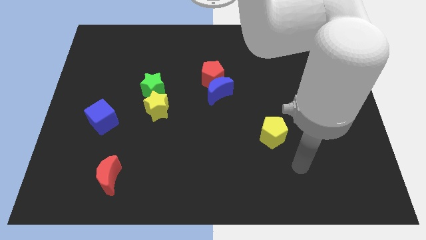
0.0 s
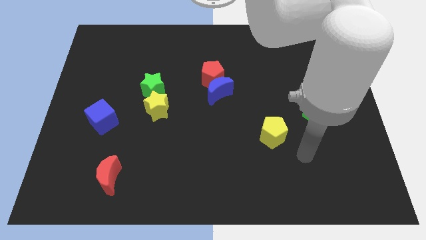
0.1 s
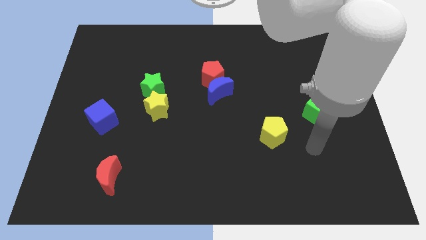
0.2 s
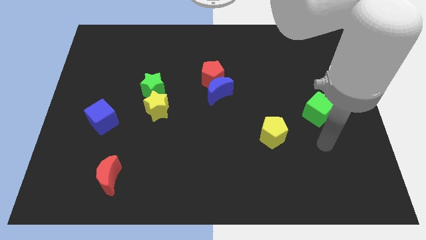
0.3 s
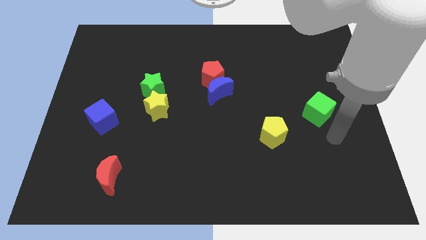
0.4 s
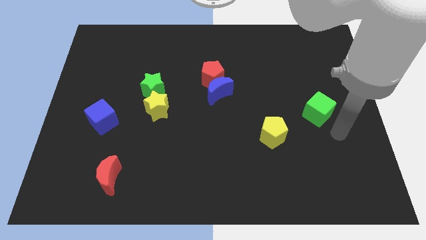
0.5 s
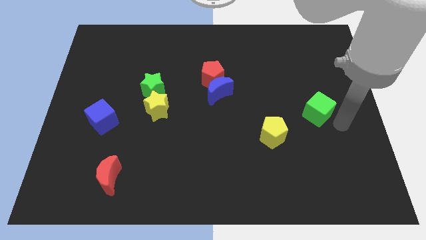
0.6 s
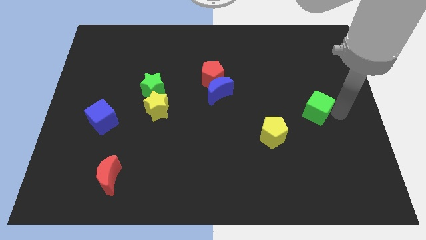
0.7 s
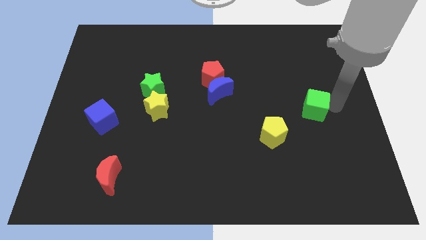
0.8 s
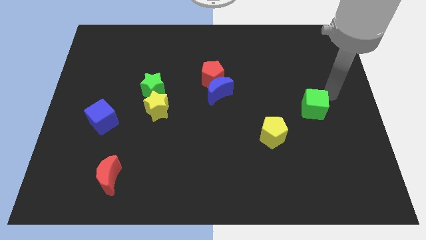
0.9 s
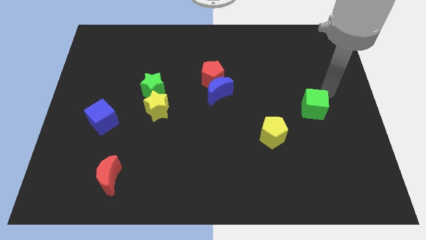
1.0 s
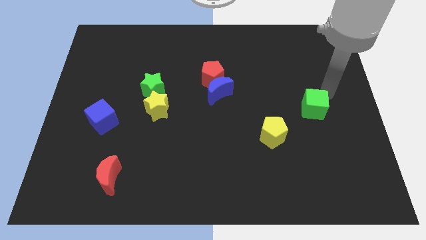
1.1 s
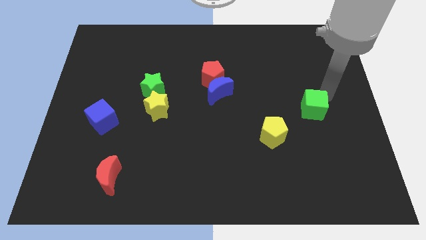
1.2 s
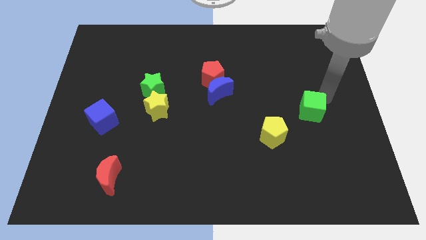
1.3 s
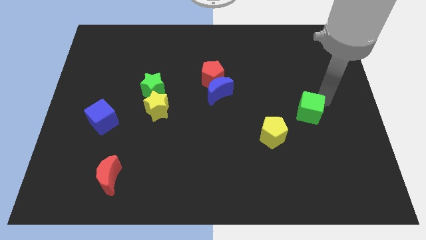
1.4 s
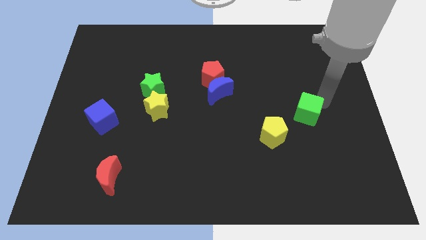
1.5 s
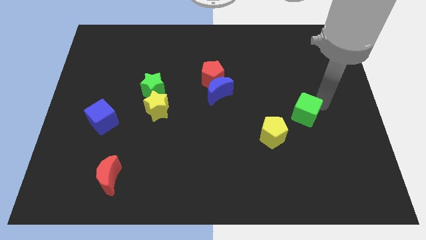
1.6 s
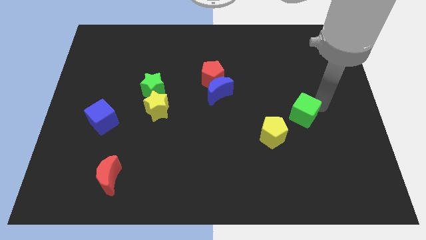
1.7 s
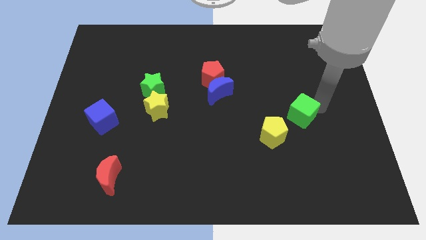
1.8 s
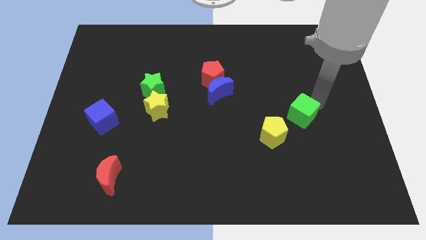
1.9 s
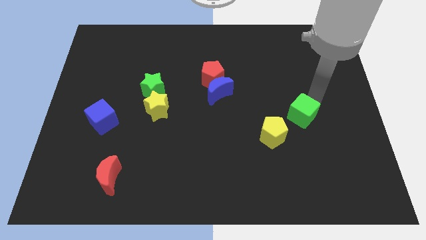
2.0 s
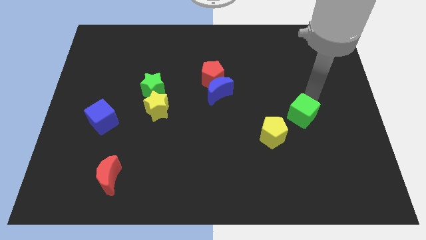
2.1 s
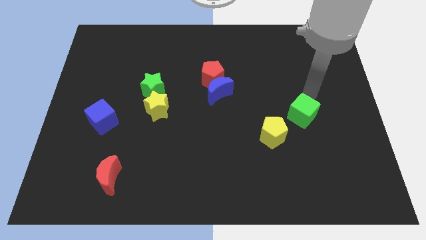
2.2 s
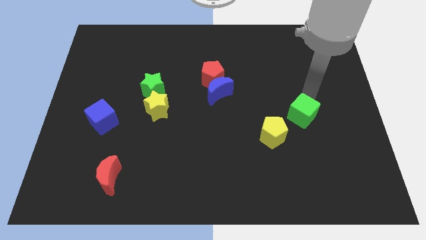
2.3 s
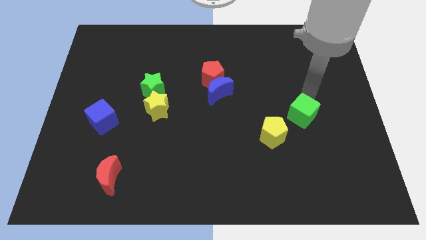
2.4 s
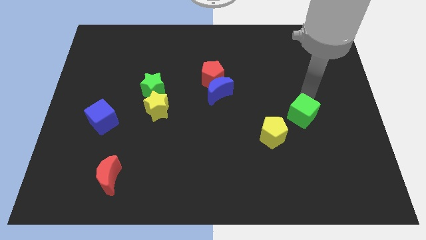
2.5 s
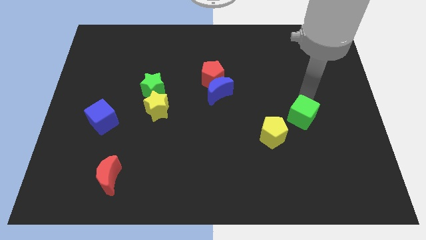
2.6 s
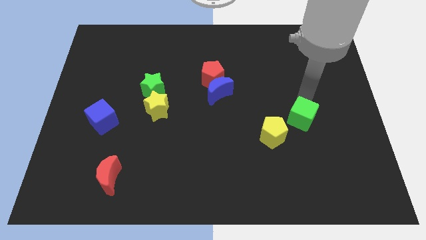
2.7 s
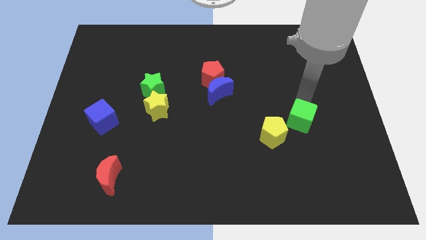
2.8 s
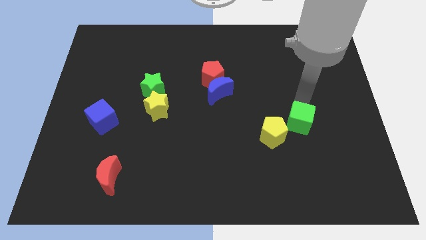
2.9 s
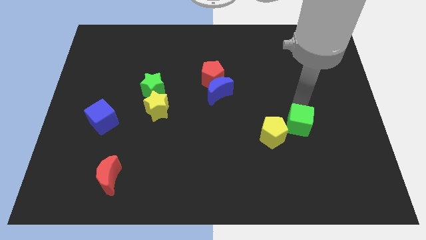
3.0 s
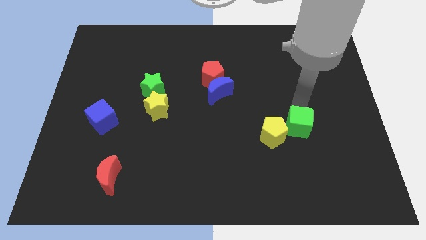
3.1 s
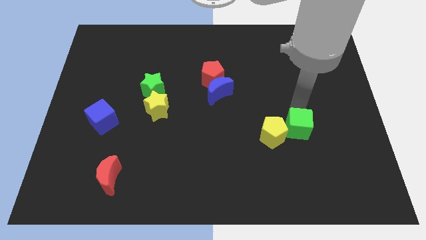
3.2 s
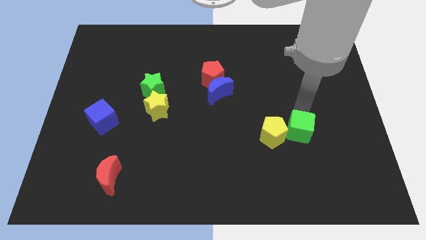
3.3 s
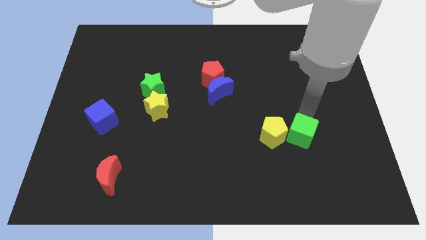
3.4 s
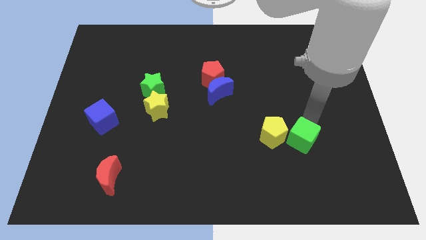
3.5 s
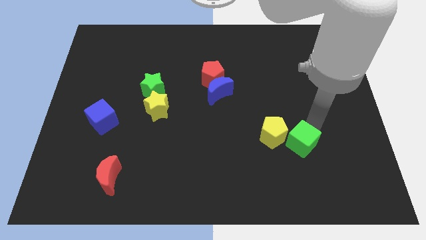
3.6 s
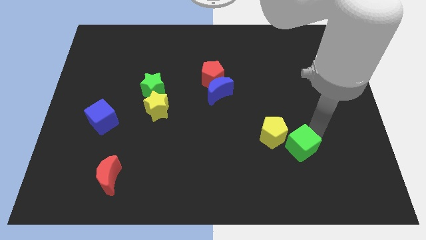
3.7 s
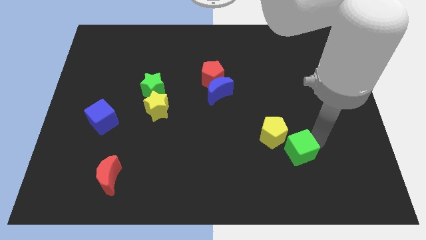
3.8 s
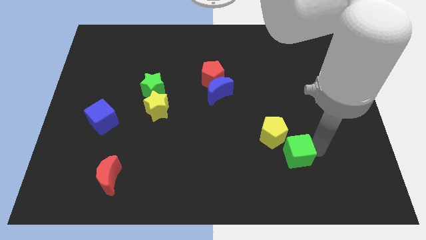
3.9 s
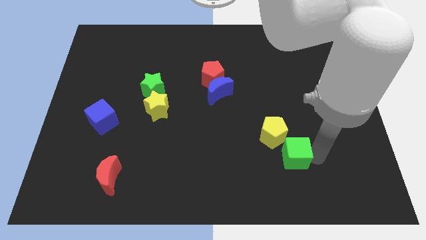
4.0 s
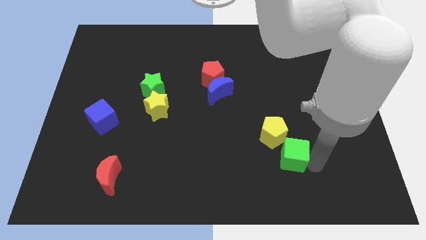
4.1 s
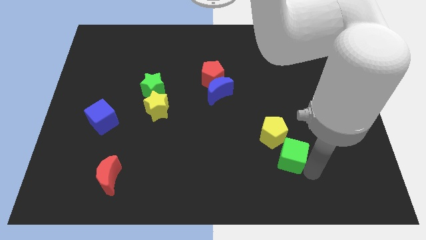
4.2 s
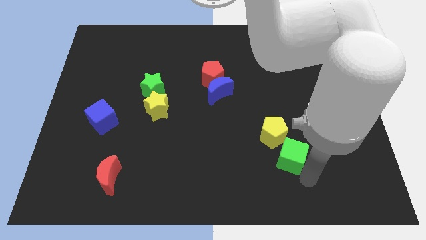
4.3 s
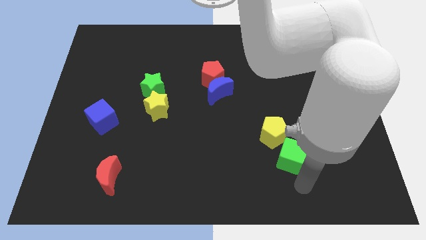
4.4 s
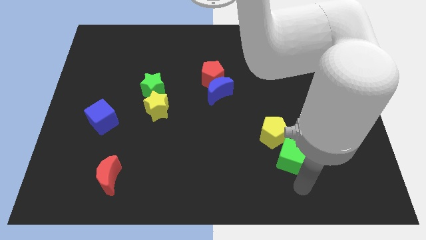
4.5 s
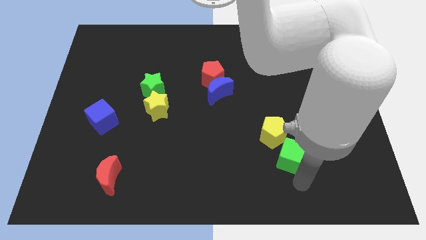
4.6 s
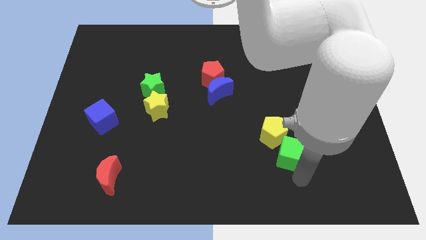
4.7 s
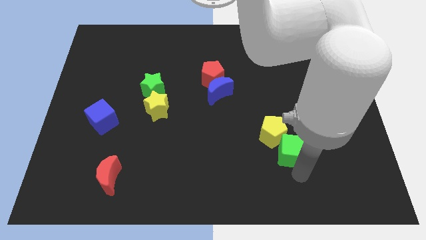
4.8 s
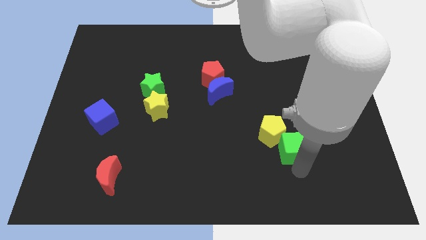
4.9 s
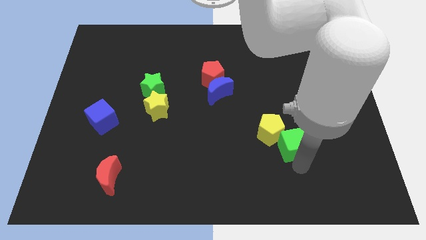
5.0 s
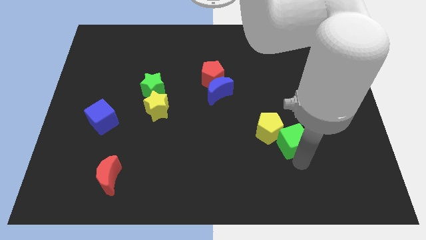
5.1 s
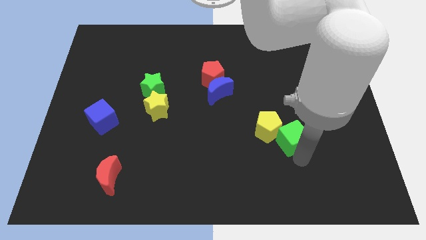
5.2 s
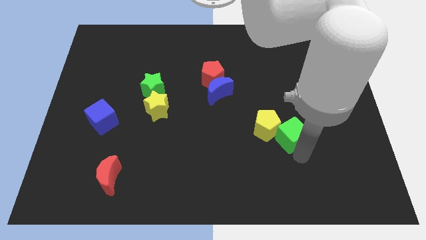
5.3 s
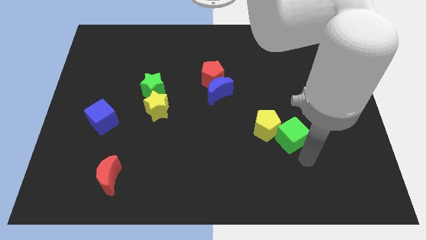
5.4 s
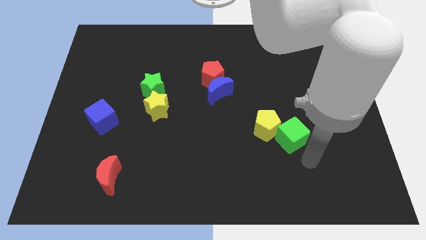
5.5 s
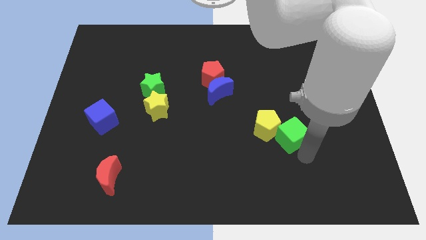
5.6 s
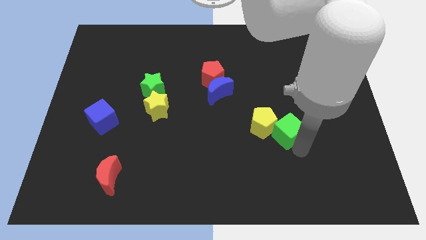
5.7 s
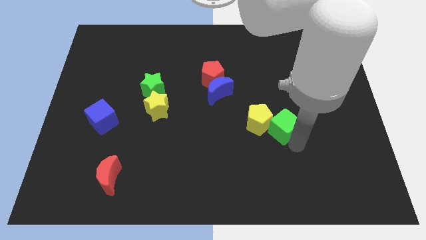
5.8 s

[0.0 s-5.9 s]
move the green cube to the left a little bit

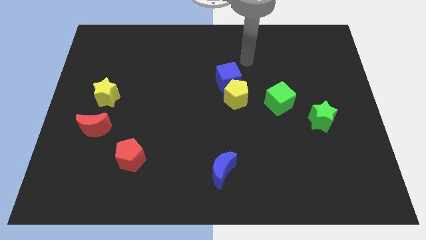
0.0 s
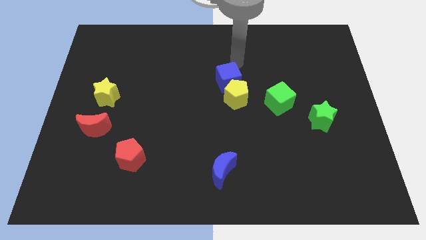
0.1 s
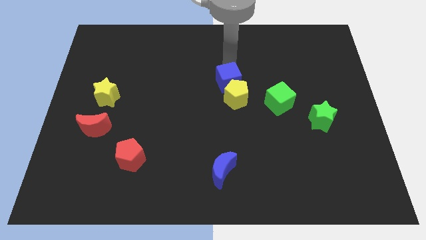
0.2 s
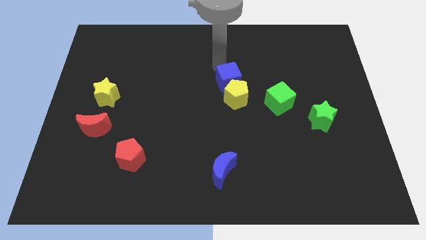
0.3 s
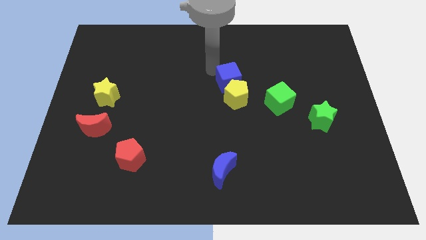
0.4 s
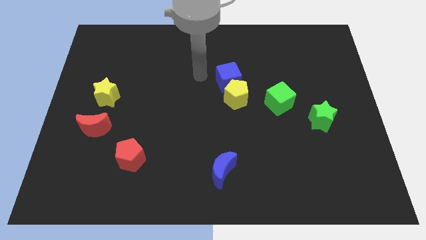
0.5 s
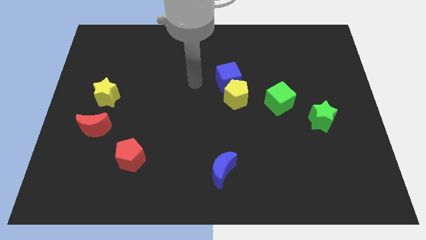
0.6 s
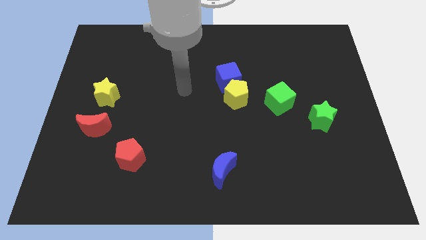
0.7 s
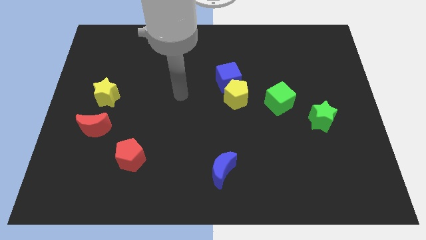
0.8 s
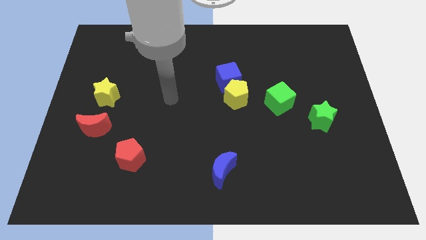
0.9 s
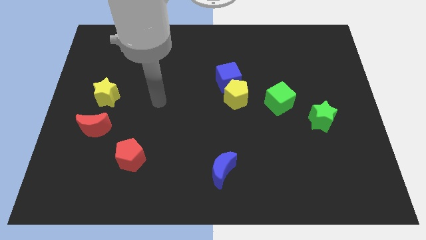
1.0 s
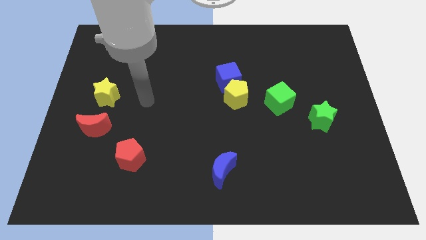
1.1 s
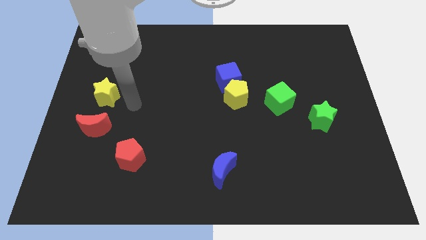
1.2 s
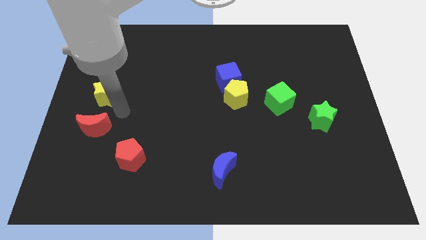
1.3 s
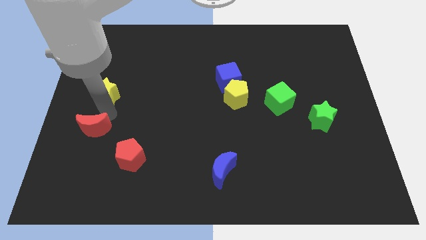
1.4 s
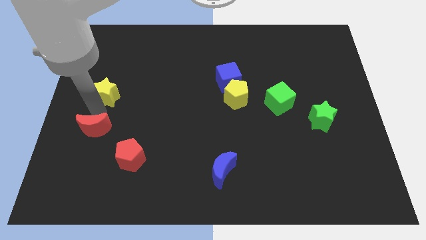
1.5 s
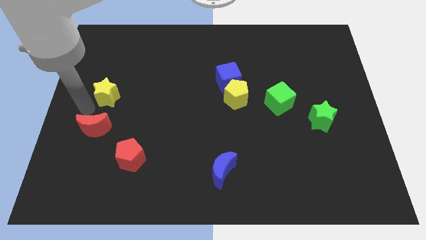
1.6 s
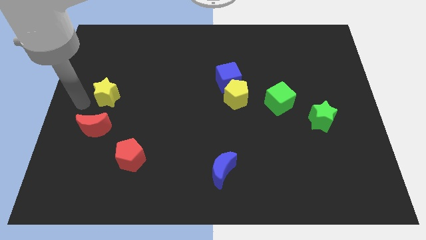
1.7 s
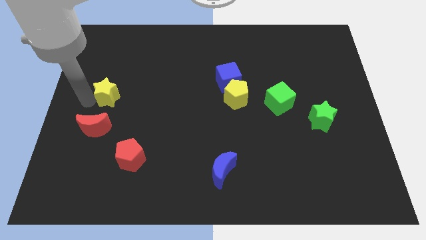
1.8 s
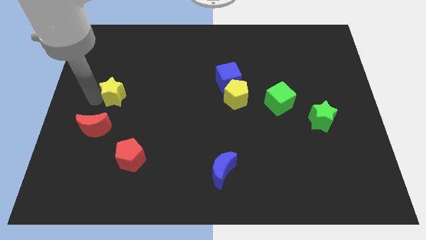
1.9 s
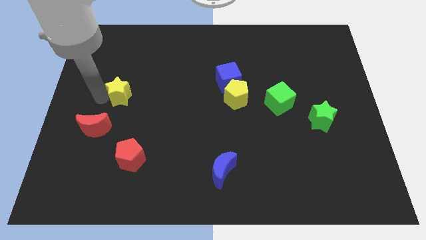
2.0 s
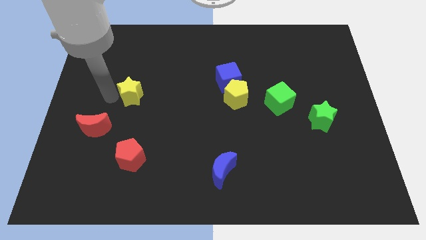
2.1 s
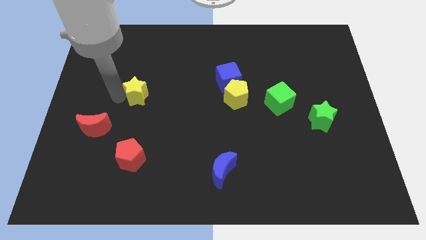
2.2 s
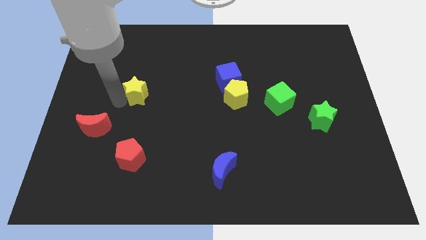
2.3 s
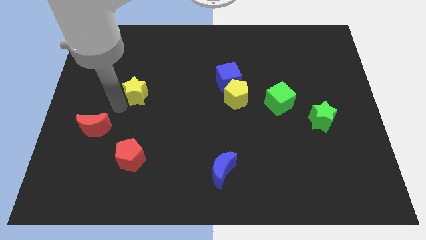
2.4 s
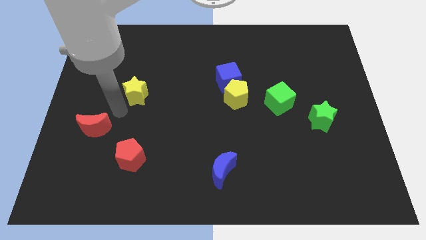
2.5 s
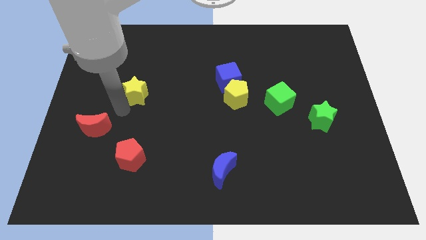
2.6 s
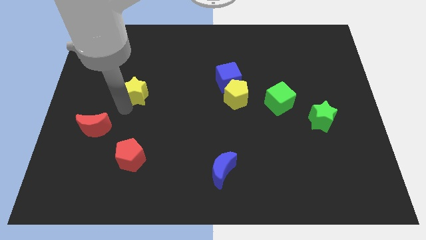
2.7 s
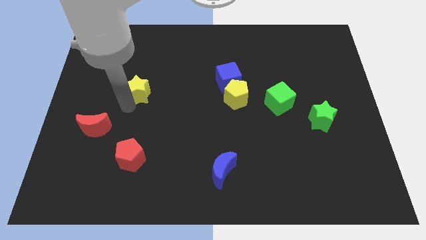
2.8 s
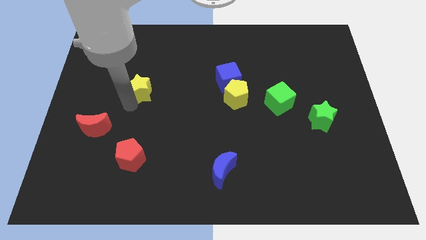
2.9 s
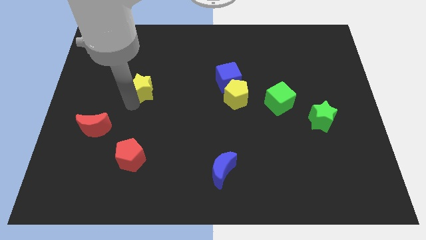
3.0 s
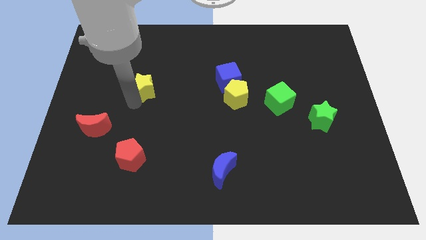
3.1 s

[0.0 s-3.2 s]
slide the yellow star a little diagonally upwards and right
